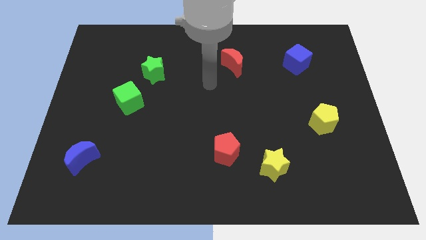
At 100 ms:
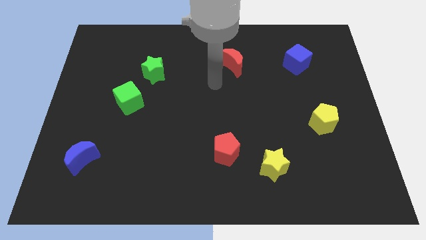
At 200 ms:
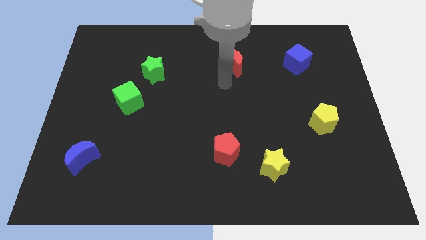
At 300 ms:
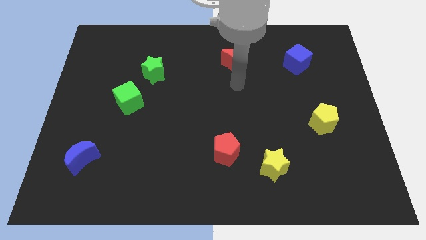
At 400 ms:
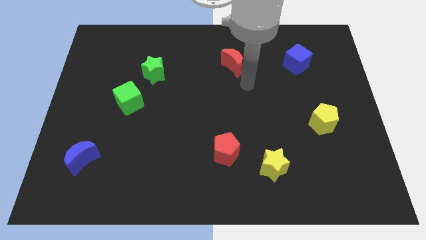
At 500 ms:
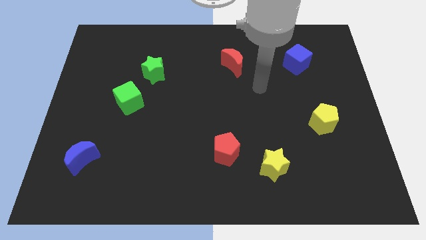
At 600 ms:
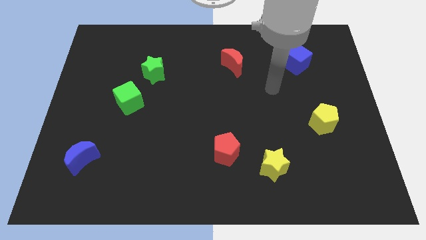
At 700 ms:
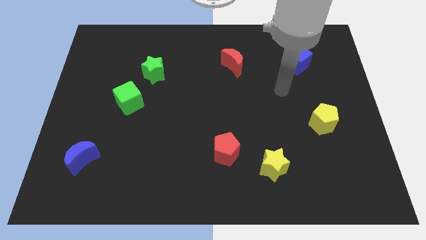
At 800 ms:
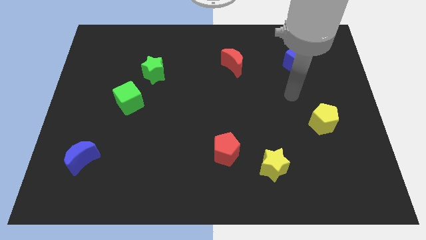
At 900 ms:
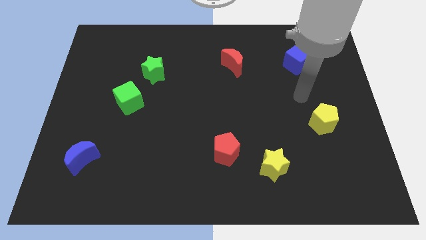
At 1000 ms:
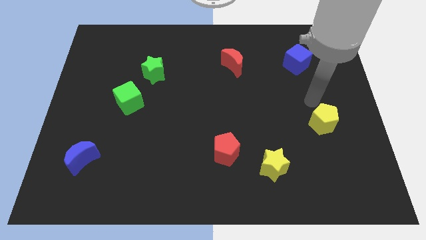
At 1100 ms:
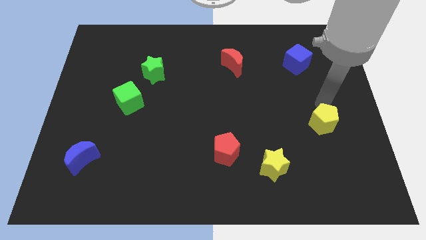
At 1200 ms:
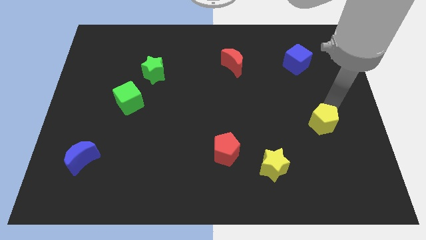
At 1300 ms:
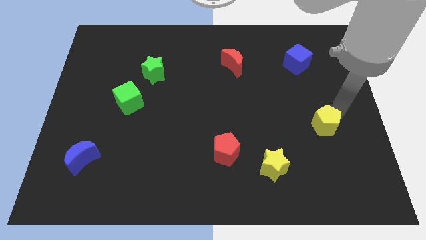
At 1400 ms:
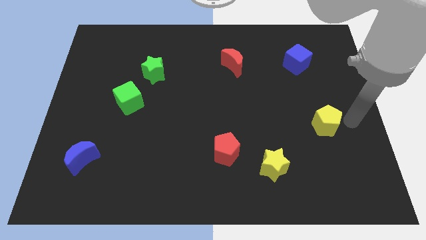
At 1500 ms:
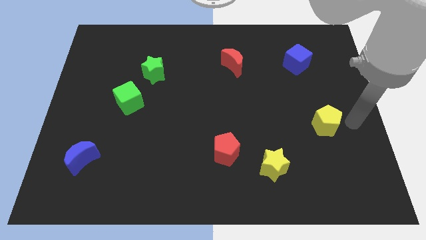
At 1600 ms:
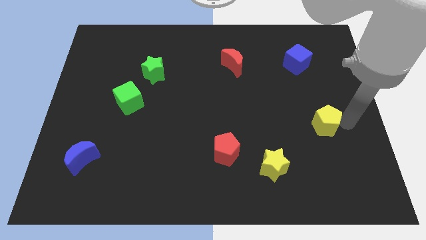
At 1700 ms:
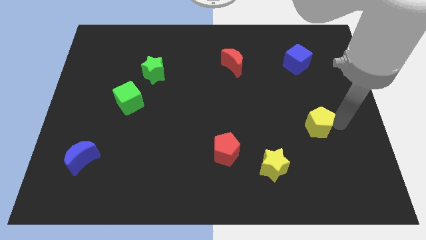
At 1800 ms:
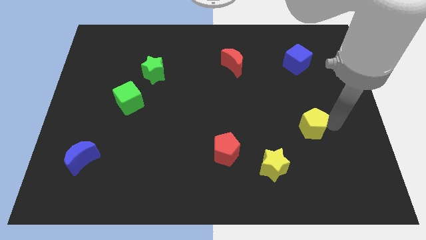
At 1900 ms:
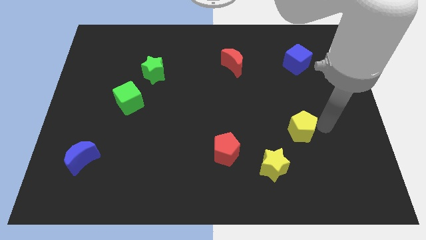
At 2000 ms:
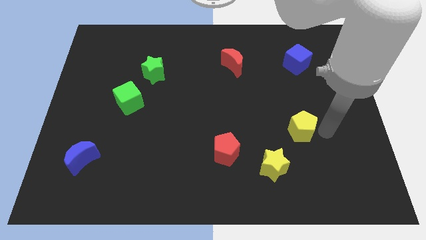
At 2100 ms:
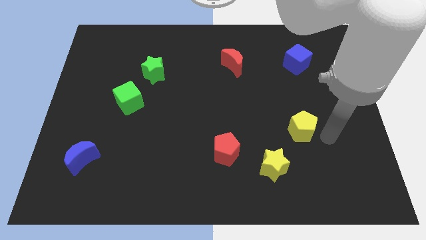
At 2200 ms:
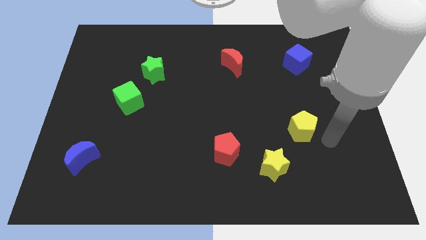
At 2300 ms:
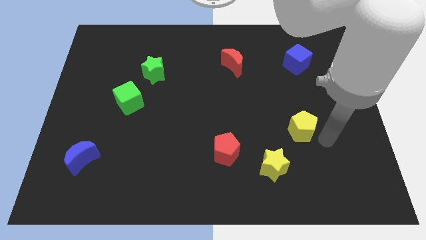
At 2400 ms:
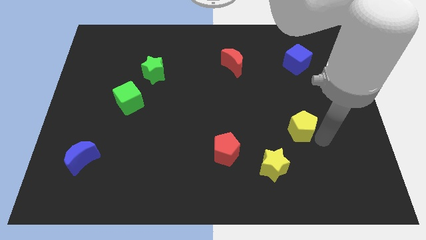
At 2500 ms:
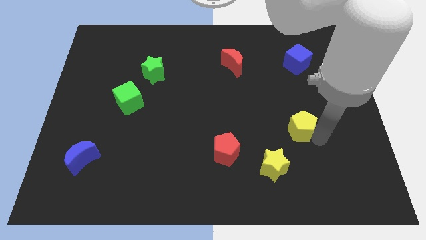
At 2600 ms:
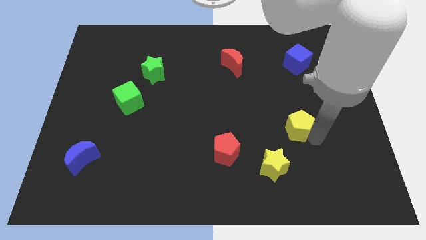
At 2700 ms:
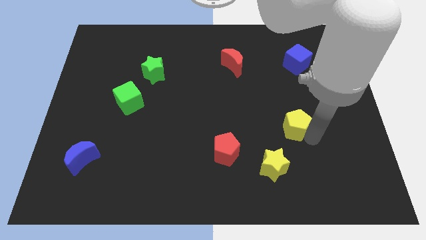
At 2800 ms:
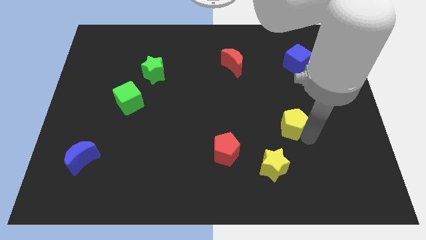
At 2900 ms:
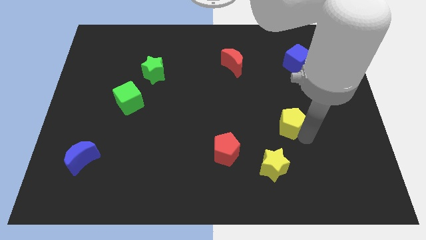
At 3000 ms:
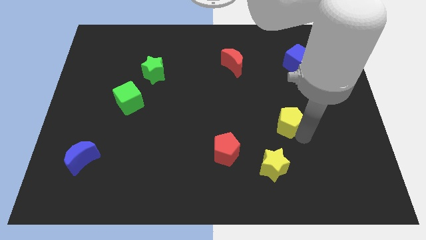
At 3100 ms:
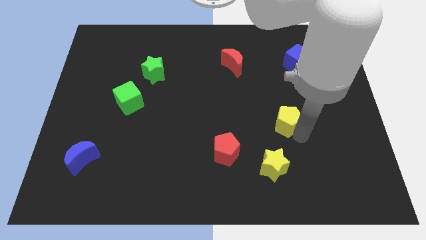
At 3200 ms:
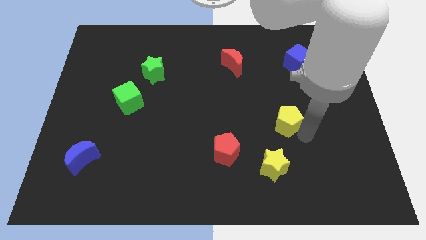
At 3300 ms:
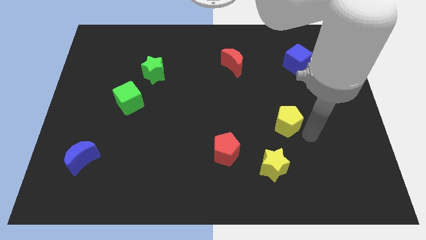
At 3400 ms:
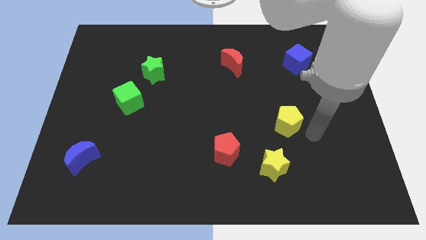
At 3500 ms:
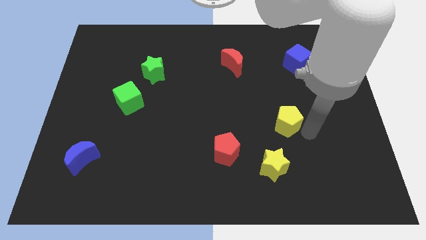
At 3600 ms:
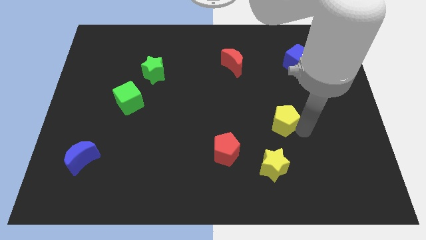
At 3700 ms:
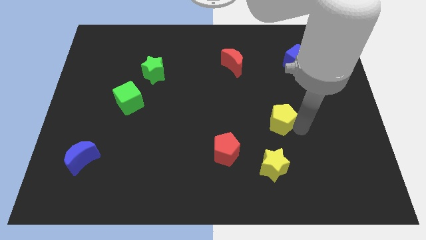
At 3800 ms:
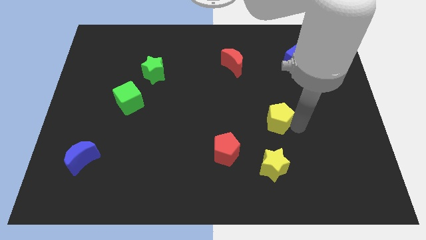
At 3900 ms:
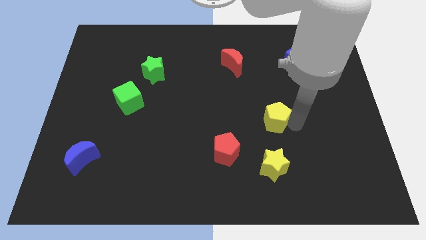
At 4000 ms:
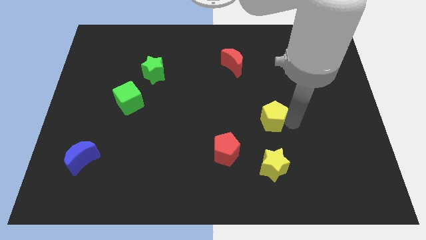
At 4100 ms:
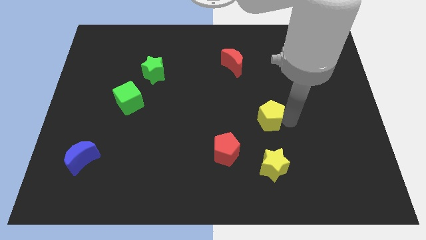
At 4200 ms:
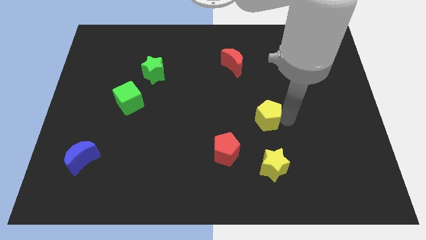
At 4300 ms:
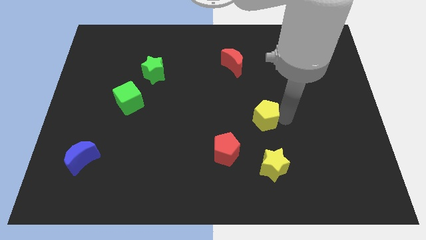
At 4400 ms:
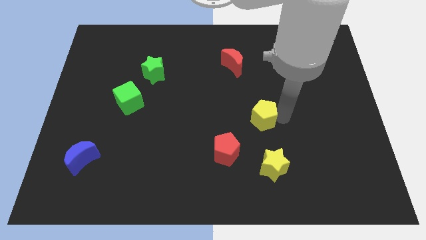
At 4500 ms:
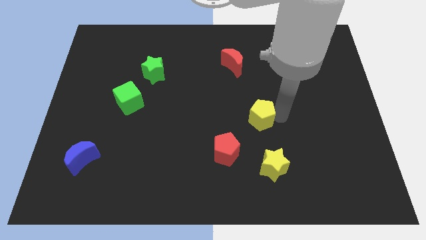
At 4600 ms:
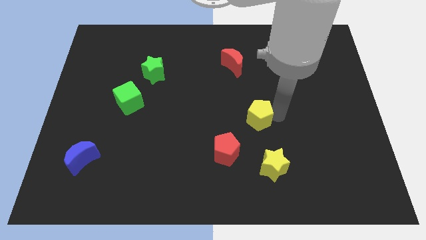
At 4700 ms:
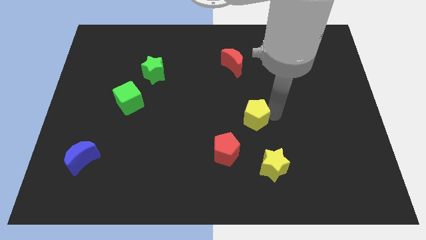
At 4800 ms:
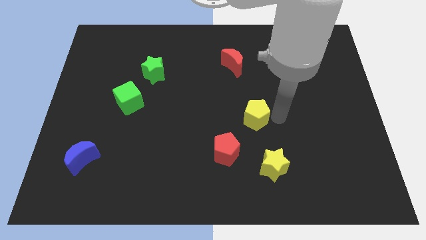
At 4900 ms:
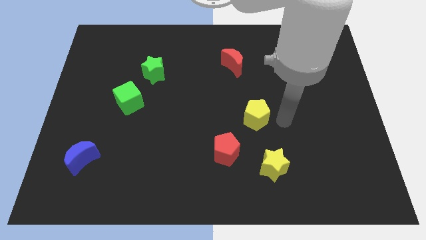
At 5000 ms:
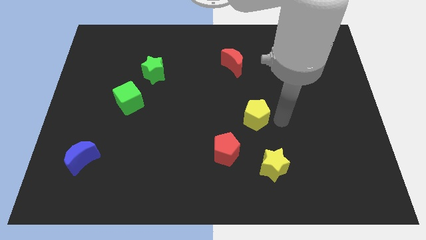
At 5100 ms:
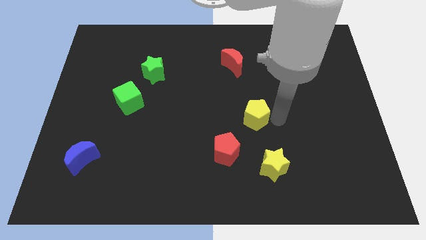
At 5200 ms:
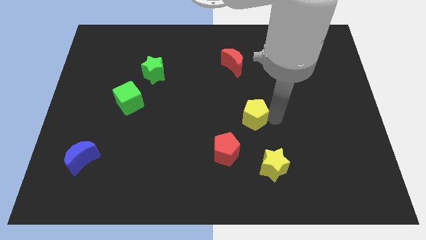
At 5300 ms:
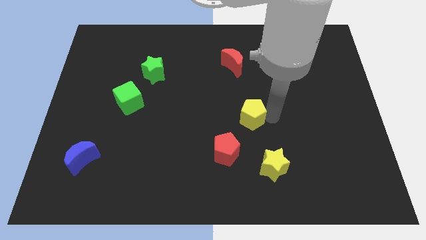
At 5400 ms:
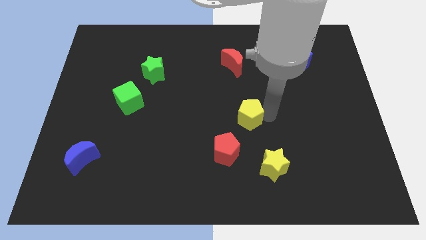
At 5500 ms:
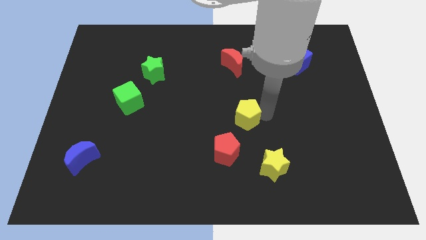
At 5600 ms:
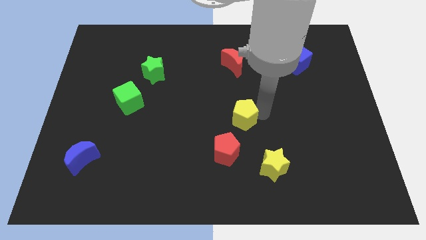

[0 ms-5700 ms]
slide the yellow pentagon to the top side of the red pentagon

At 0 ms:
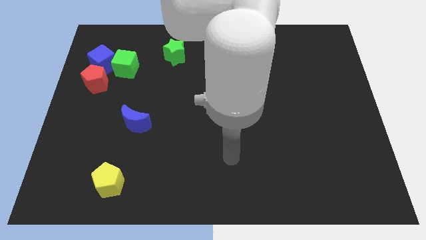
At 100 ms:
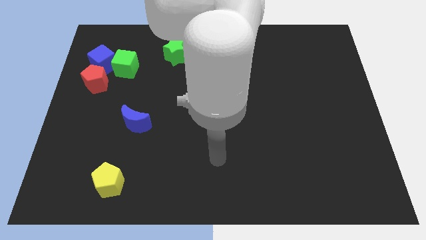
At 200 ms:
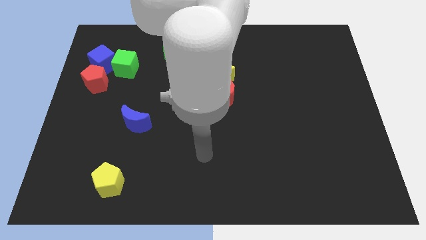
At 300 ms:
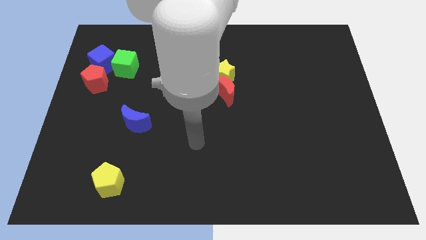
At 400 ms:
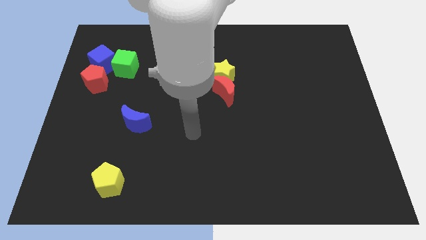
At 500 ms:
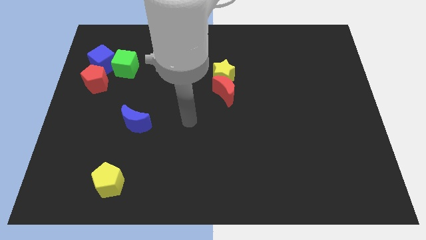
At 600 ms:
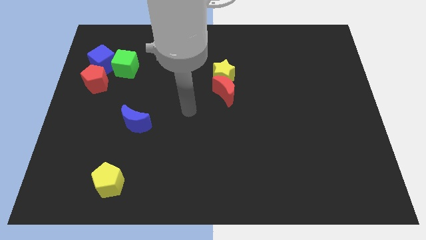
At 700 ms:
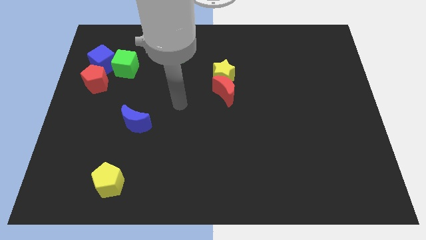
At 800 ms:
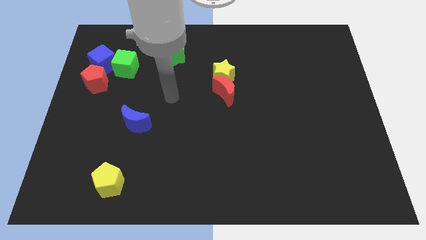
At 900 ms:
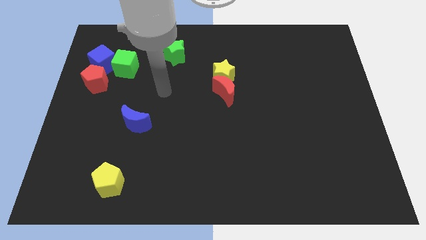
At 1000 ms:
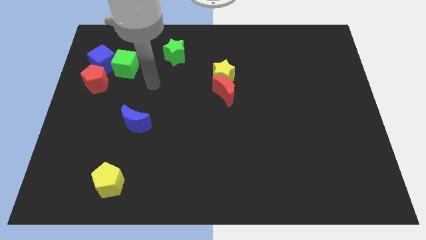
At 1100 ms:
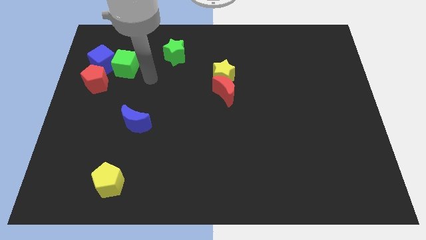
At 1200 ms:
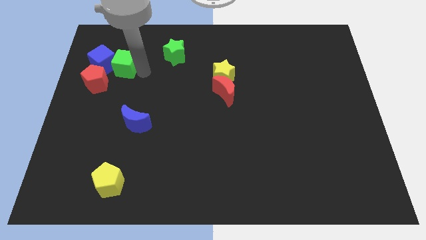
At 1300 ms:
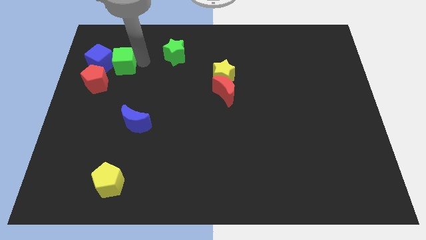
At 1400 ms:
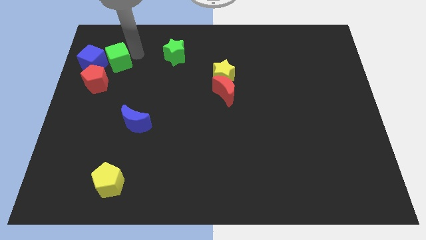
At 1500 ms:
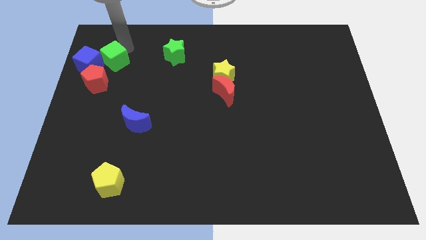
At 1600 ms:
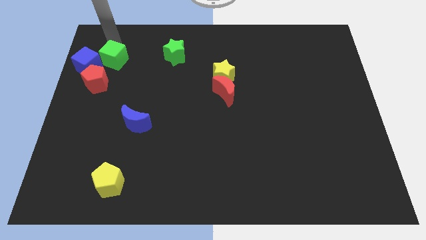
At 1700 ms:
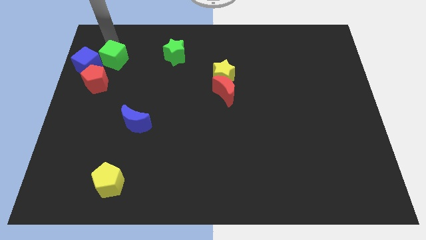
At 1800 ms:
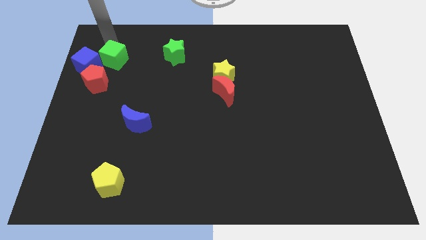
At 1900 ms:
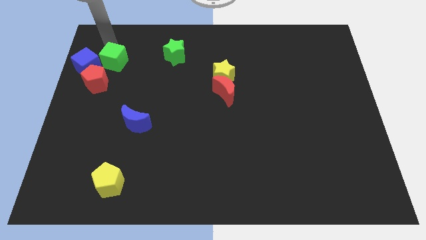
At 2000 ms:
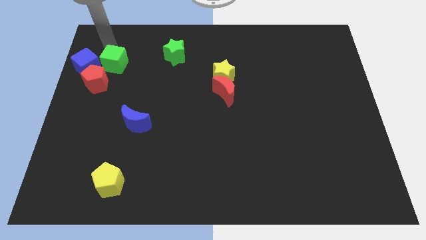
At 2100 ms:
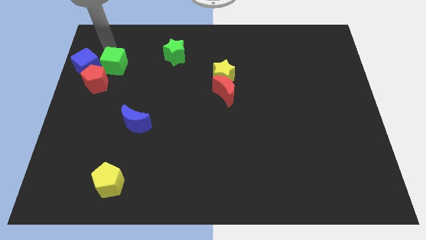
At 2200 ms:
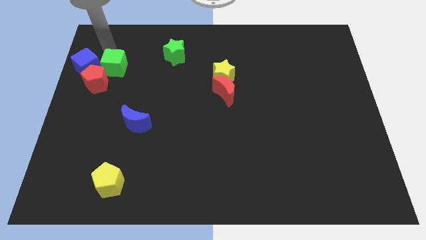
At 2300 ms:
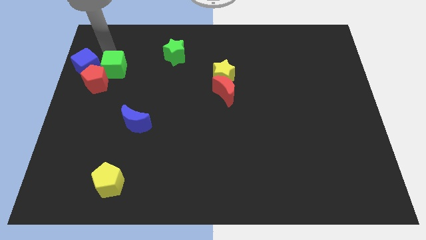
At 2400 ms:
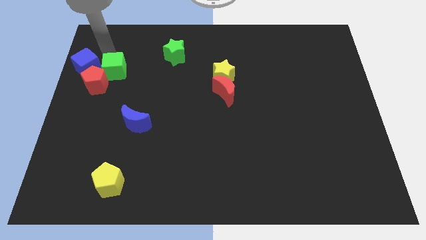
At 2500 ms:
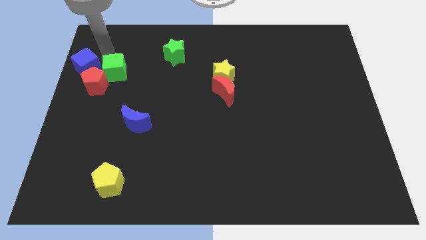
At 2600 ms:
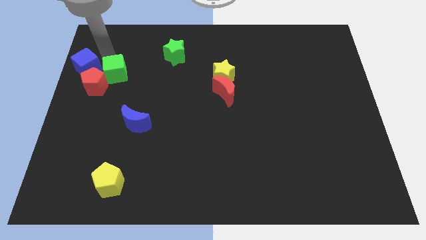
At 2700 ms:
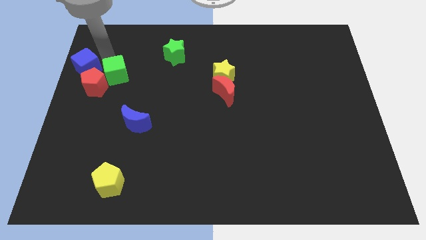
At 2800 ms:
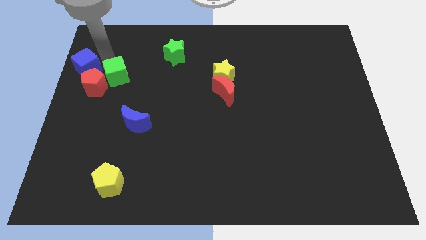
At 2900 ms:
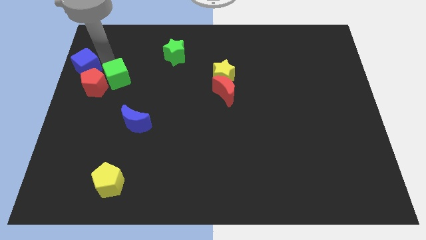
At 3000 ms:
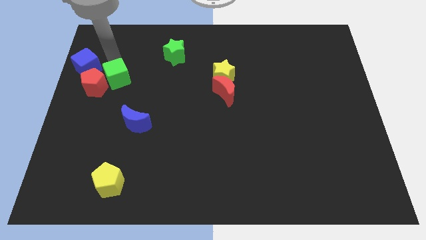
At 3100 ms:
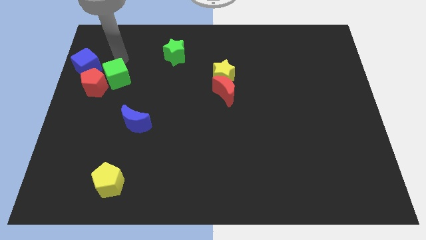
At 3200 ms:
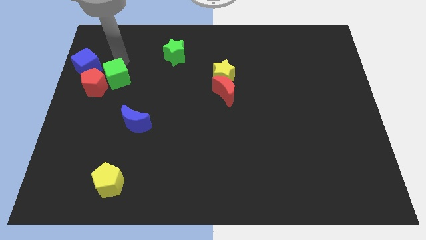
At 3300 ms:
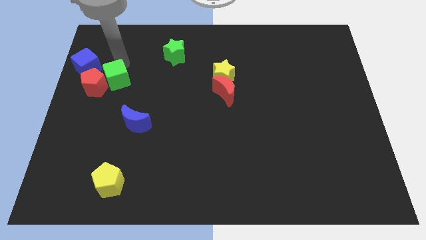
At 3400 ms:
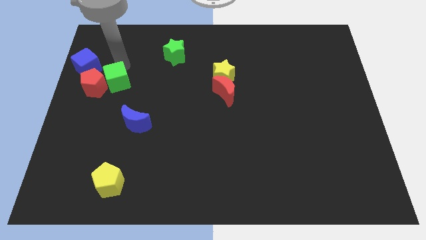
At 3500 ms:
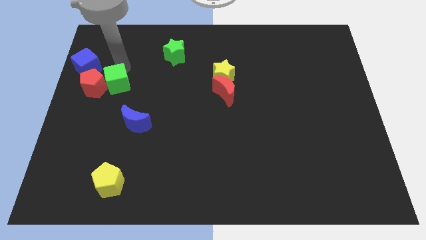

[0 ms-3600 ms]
push the green cube diagonally down and to the right of the red pentagon
